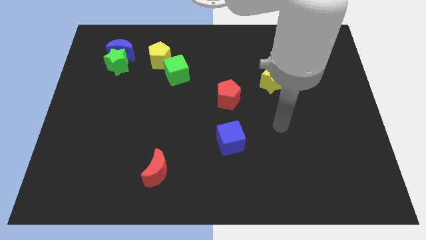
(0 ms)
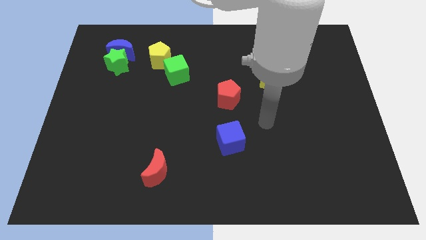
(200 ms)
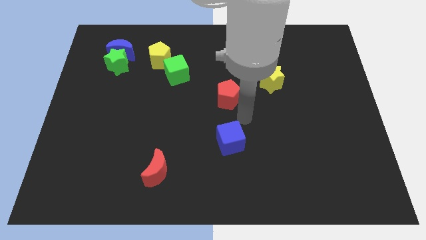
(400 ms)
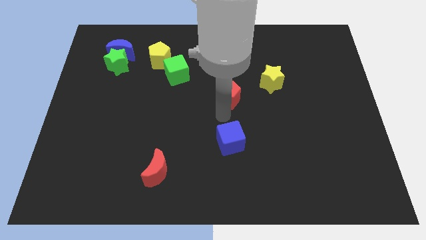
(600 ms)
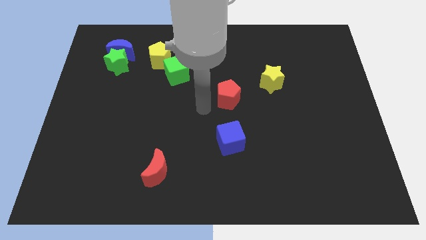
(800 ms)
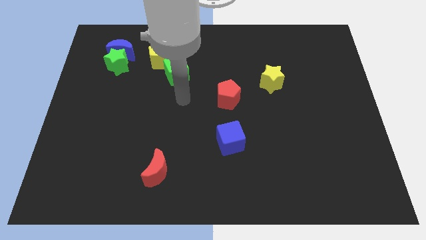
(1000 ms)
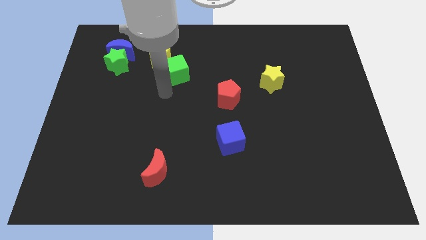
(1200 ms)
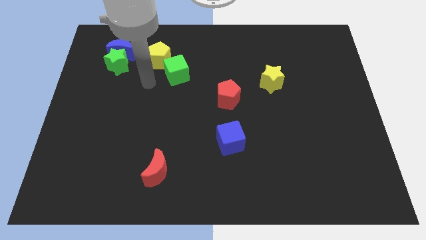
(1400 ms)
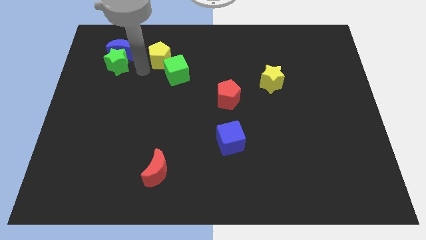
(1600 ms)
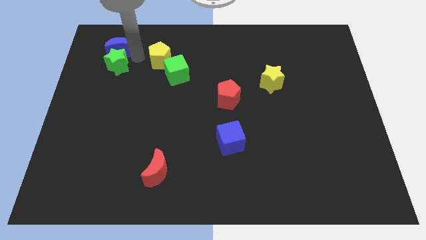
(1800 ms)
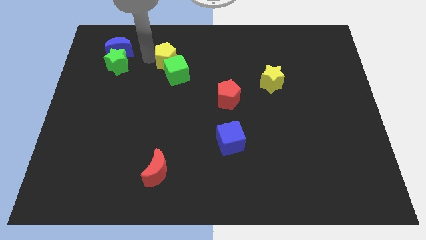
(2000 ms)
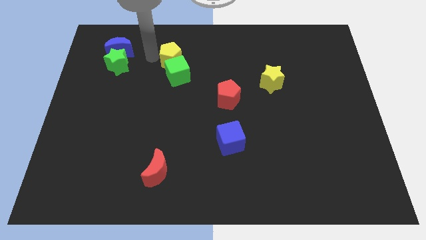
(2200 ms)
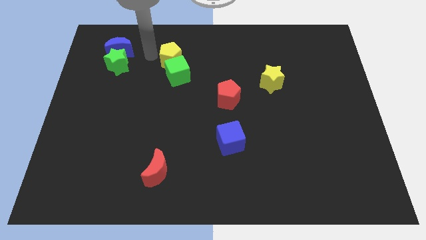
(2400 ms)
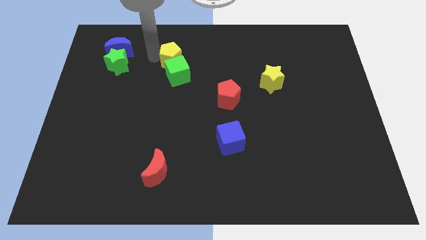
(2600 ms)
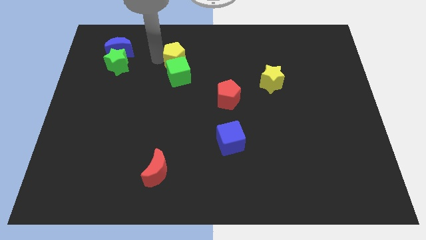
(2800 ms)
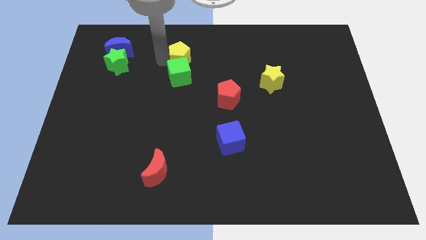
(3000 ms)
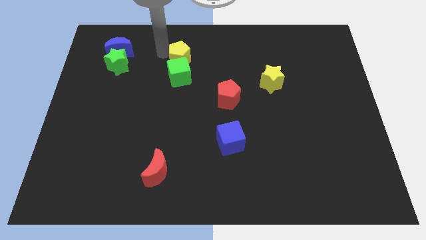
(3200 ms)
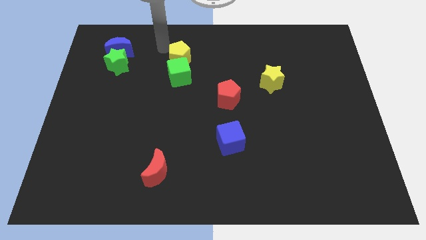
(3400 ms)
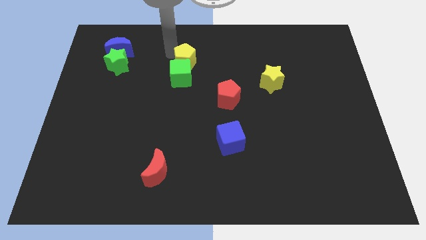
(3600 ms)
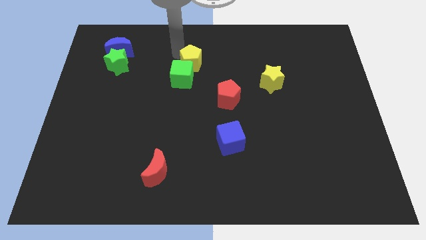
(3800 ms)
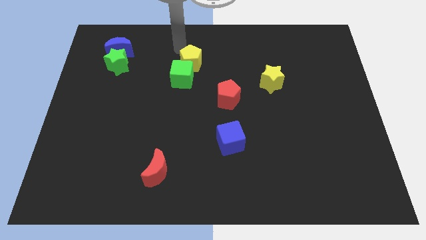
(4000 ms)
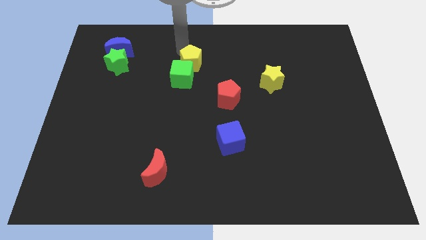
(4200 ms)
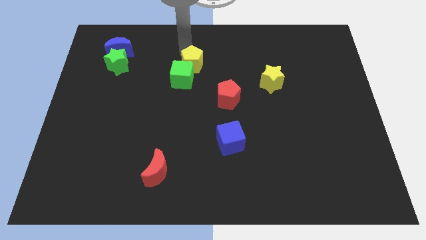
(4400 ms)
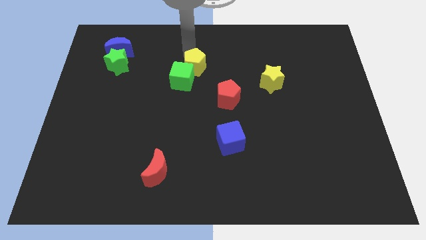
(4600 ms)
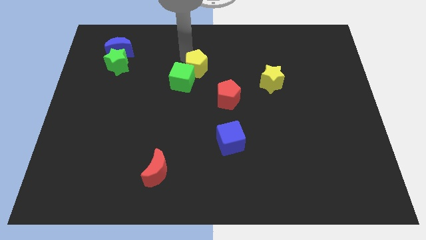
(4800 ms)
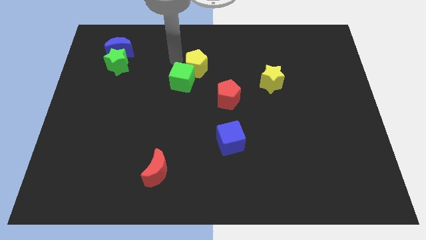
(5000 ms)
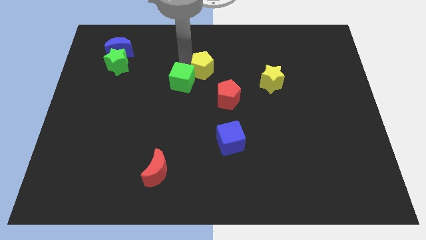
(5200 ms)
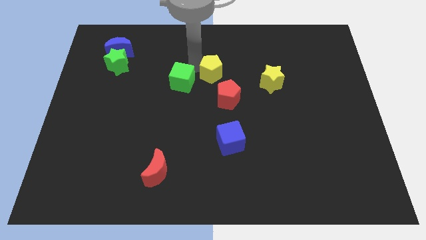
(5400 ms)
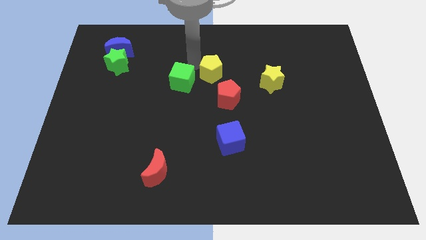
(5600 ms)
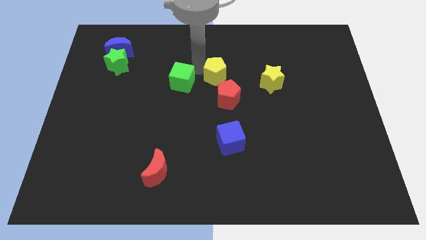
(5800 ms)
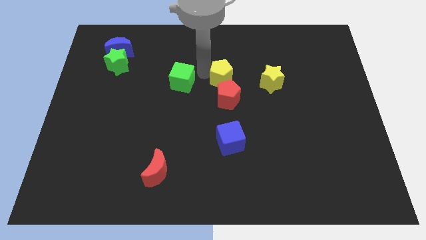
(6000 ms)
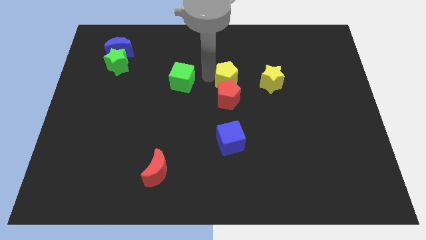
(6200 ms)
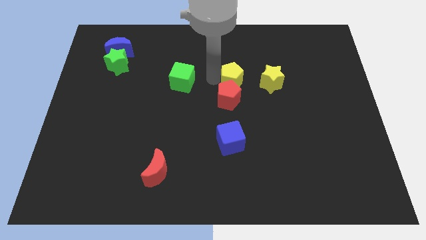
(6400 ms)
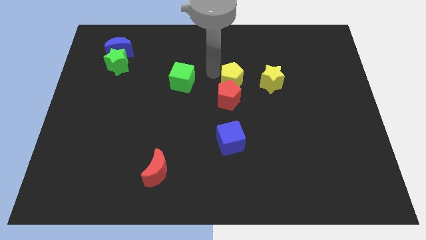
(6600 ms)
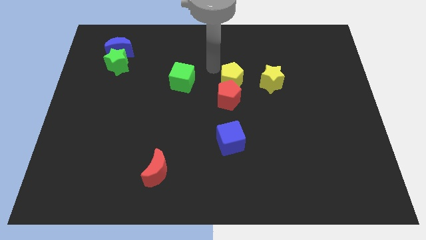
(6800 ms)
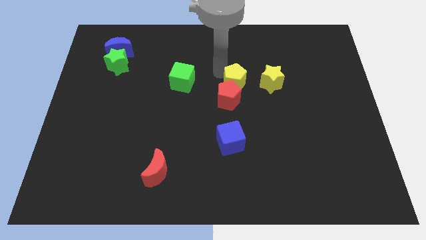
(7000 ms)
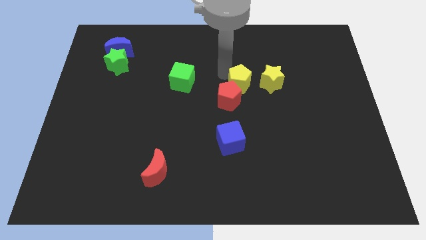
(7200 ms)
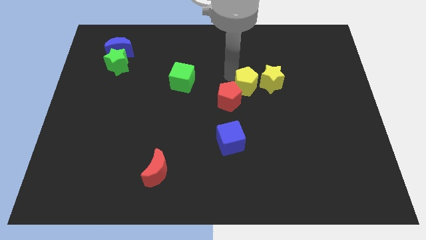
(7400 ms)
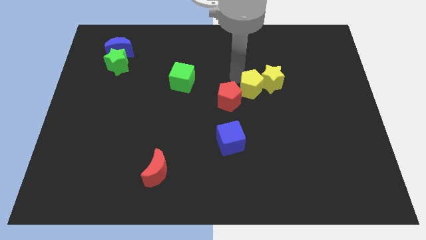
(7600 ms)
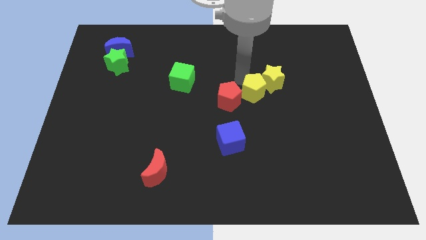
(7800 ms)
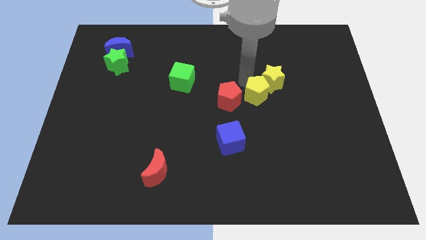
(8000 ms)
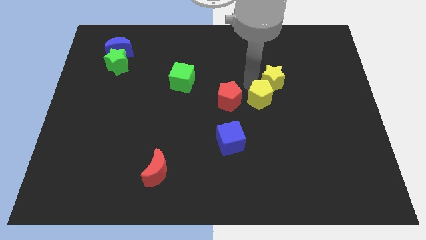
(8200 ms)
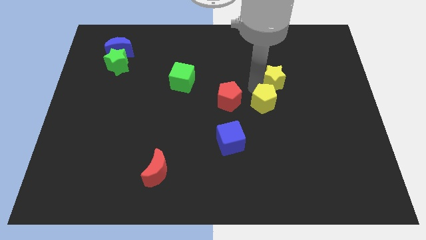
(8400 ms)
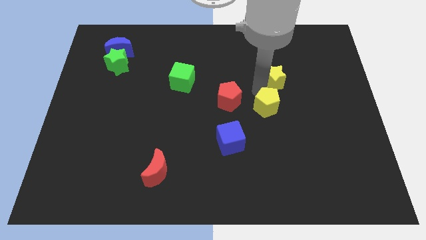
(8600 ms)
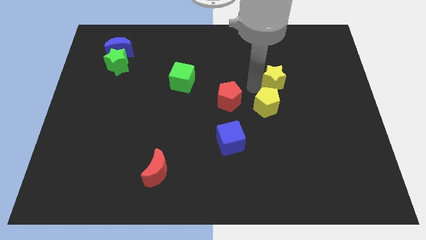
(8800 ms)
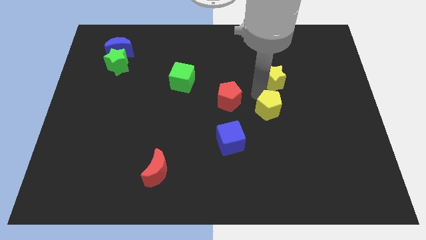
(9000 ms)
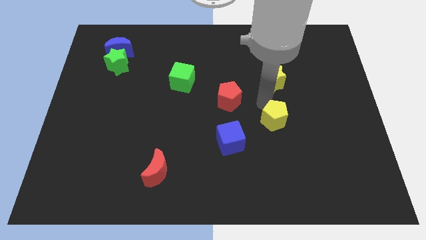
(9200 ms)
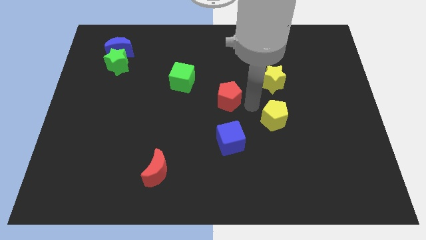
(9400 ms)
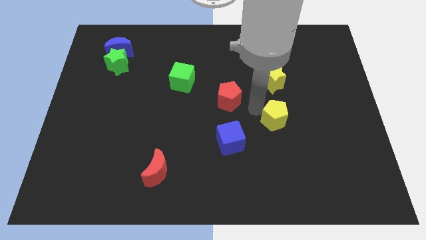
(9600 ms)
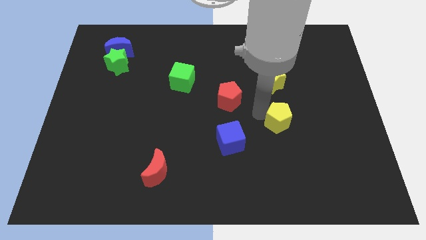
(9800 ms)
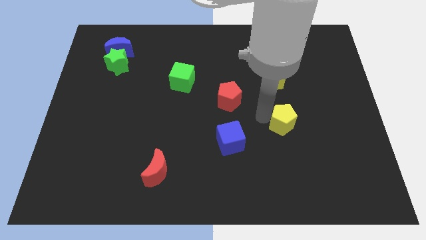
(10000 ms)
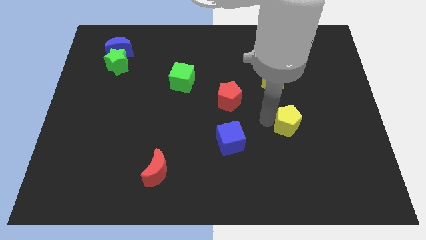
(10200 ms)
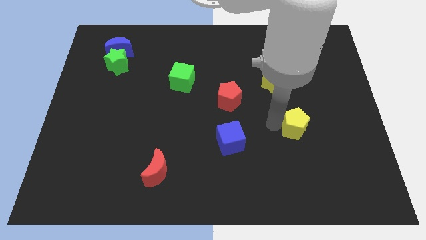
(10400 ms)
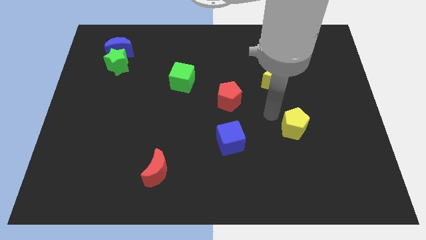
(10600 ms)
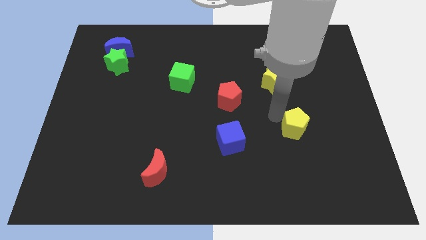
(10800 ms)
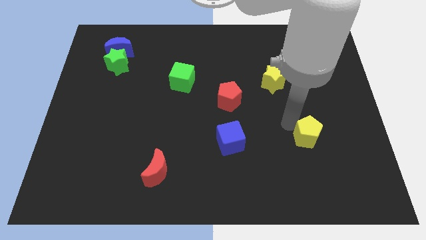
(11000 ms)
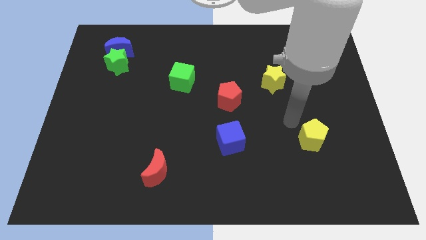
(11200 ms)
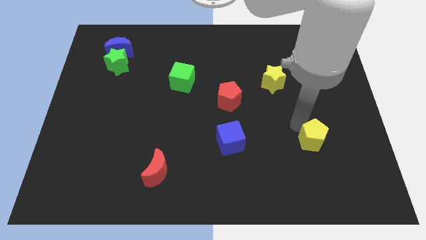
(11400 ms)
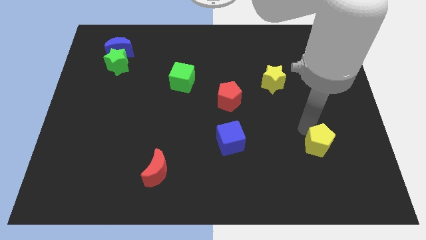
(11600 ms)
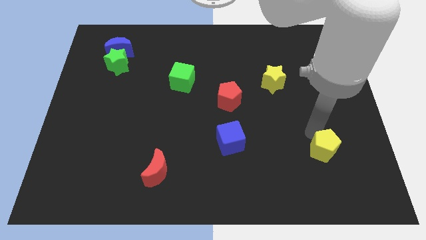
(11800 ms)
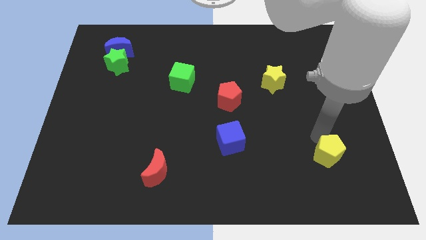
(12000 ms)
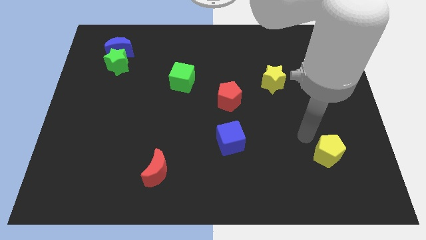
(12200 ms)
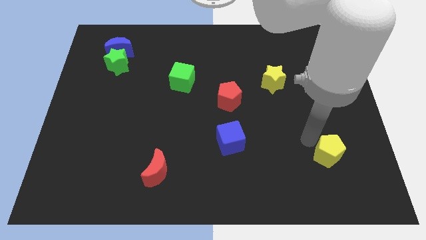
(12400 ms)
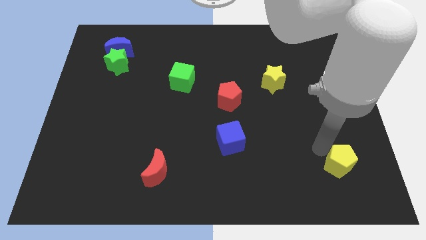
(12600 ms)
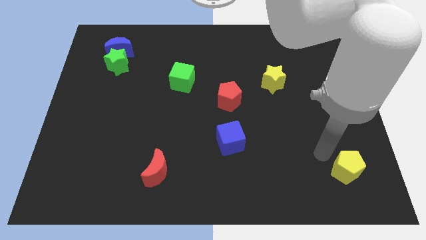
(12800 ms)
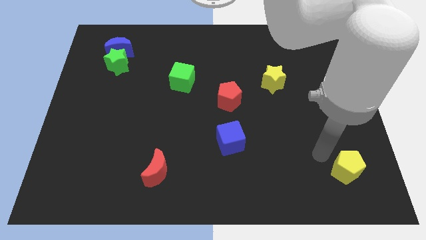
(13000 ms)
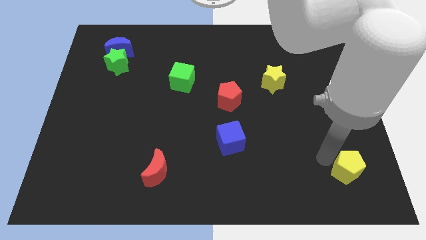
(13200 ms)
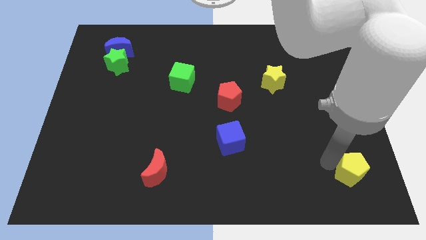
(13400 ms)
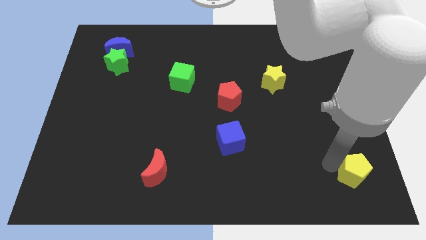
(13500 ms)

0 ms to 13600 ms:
push the yellow pentagon to the bottom right

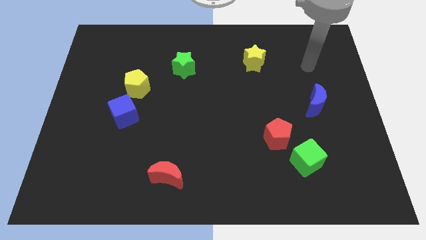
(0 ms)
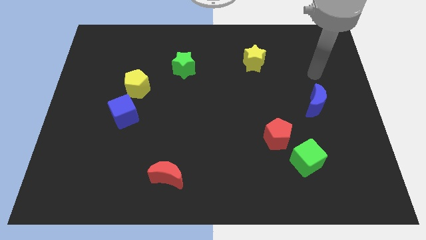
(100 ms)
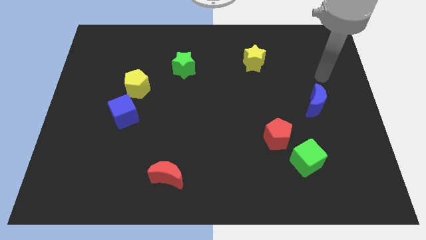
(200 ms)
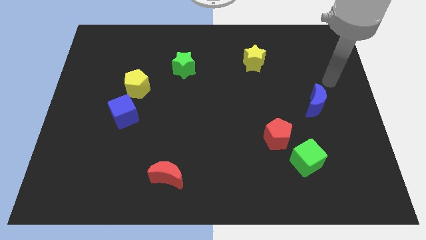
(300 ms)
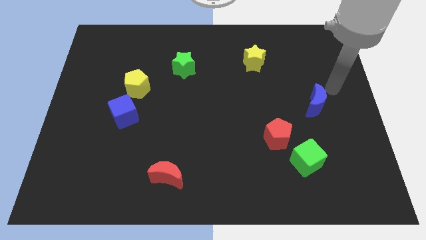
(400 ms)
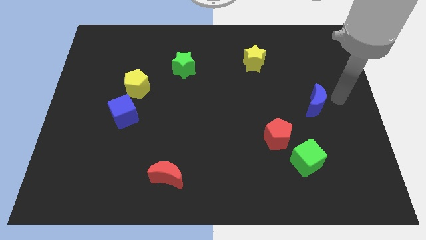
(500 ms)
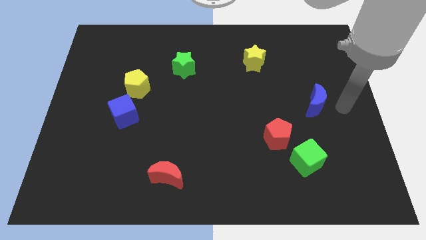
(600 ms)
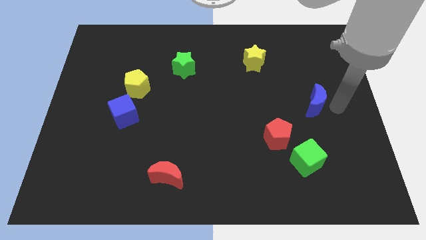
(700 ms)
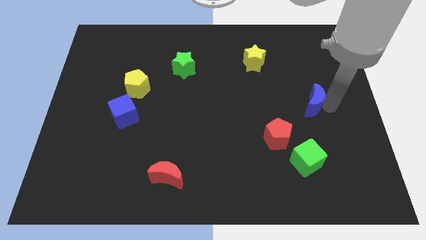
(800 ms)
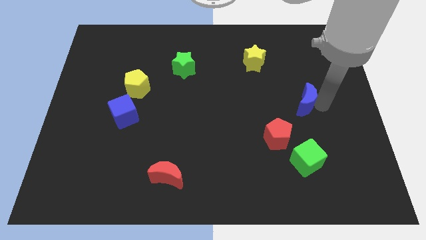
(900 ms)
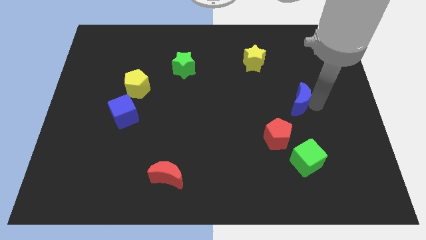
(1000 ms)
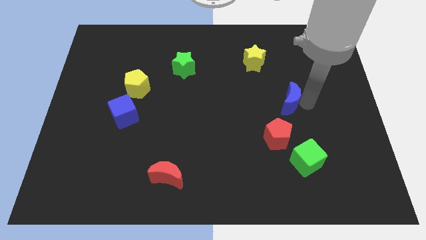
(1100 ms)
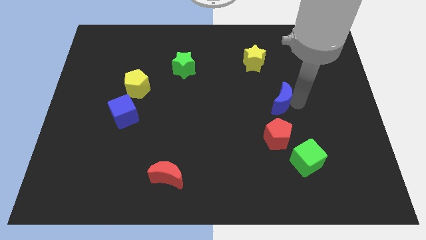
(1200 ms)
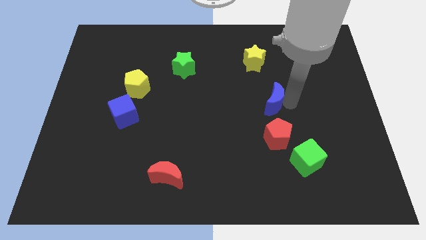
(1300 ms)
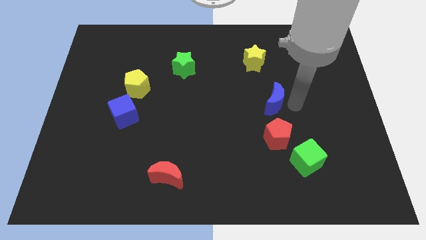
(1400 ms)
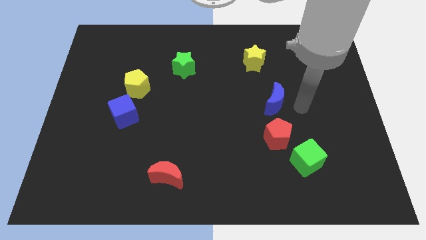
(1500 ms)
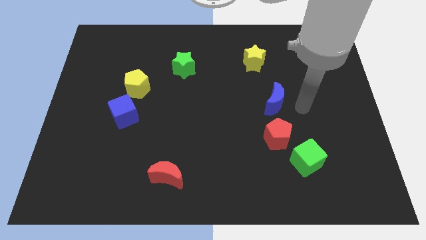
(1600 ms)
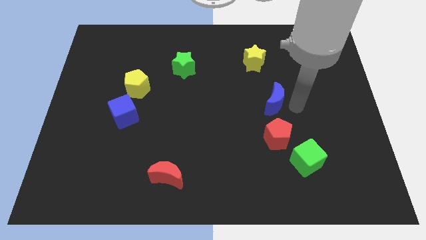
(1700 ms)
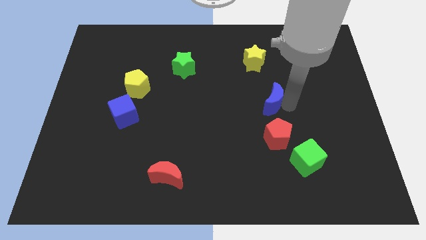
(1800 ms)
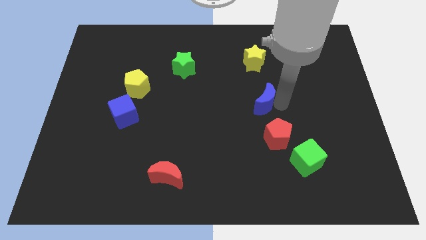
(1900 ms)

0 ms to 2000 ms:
put the blue moon to the center
